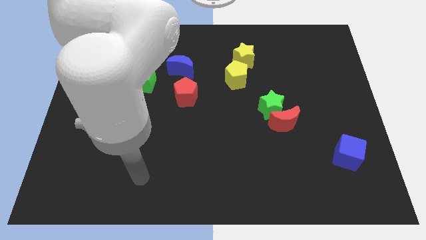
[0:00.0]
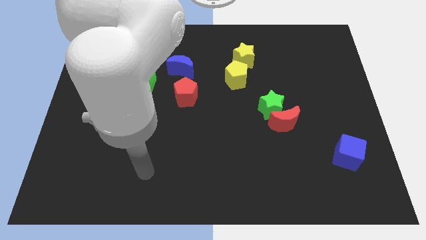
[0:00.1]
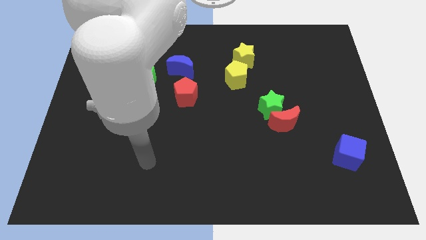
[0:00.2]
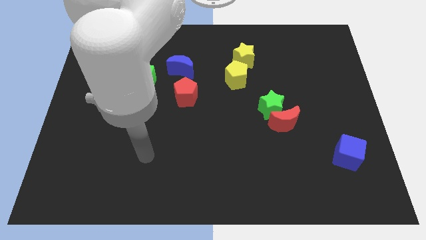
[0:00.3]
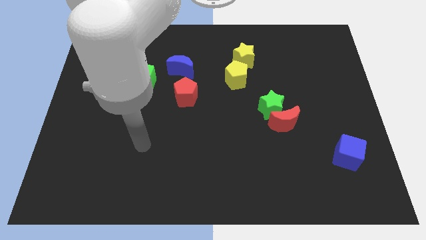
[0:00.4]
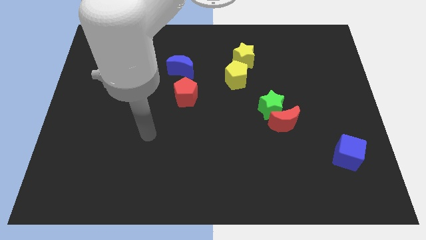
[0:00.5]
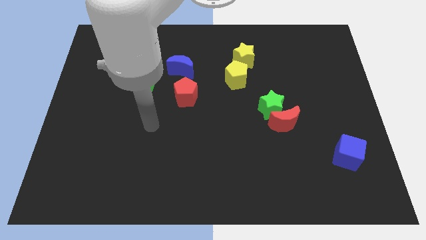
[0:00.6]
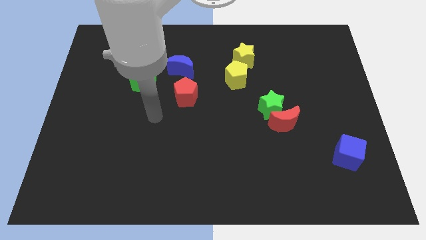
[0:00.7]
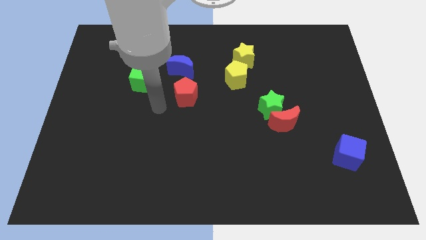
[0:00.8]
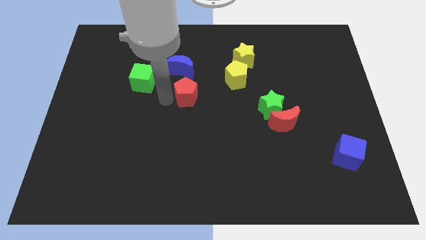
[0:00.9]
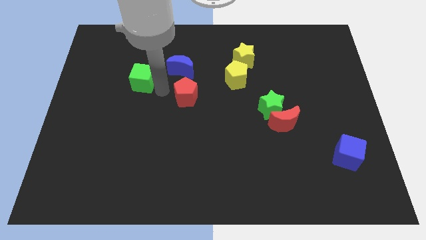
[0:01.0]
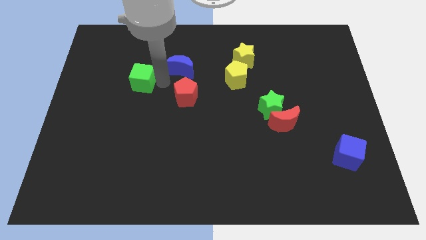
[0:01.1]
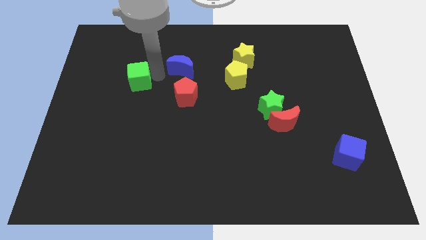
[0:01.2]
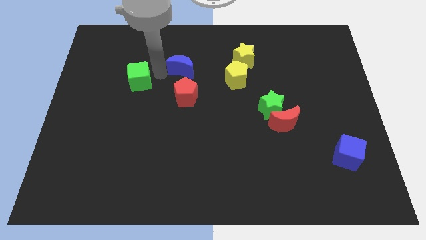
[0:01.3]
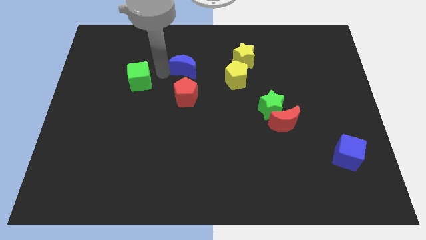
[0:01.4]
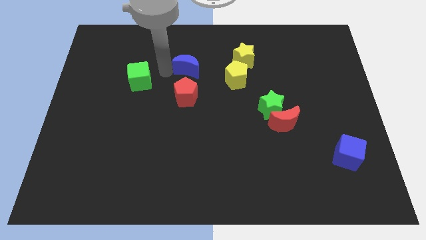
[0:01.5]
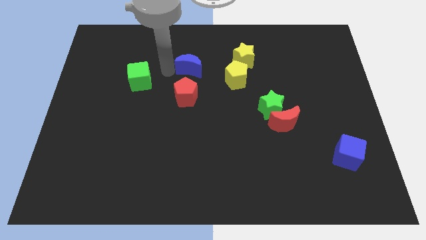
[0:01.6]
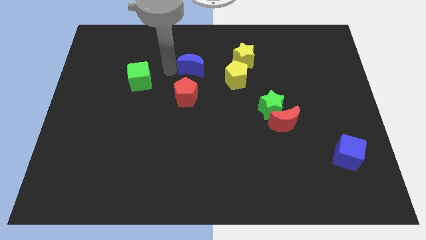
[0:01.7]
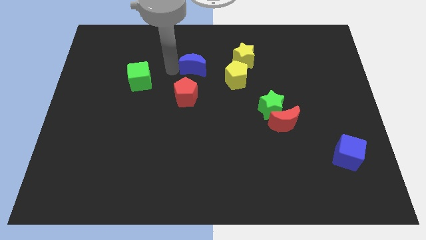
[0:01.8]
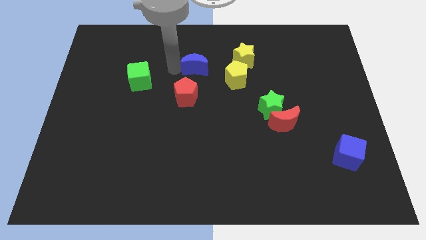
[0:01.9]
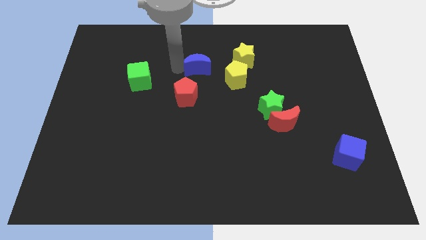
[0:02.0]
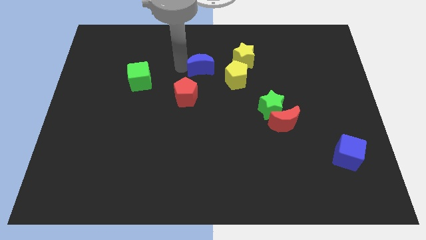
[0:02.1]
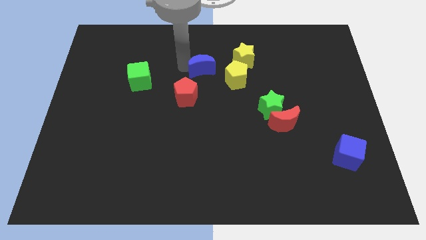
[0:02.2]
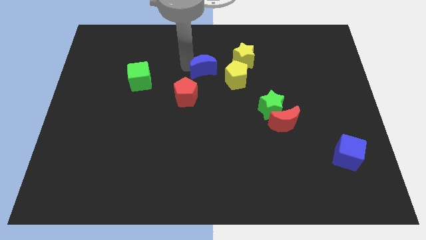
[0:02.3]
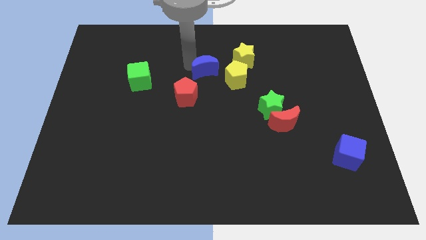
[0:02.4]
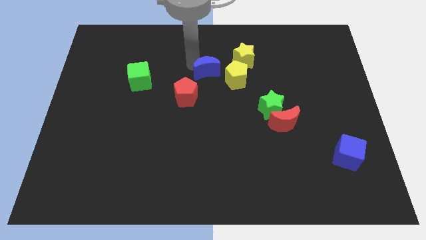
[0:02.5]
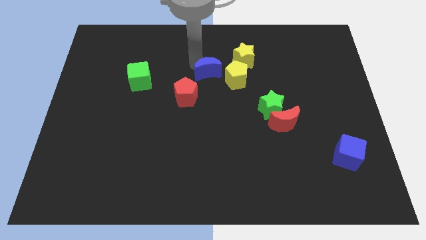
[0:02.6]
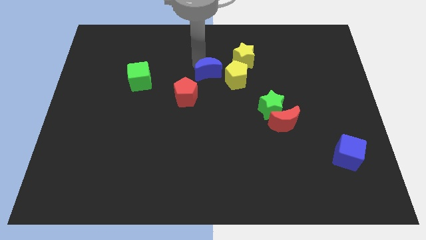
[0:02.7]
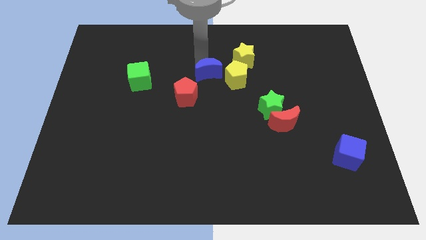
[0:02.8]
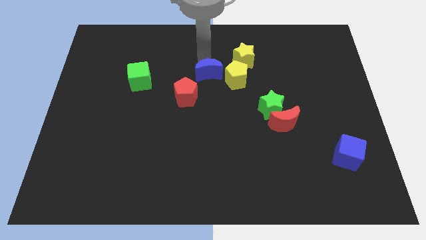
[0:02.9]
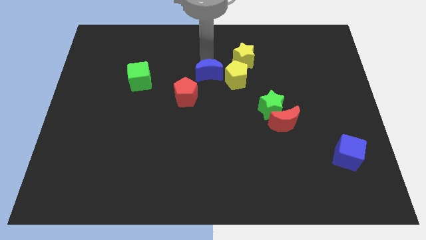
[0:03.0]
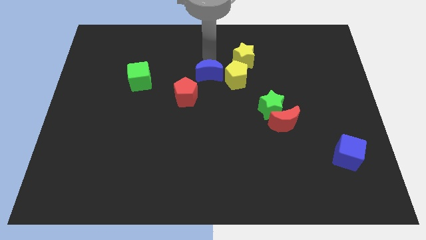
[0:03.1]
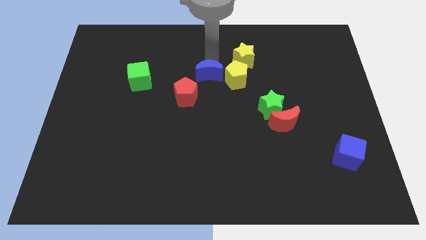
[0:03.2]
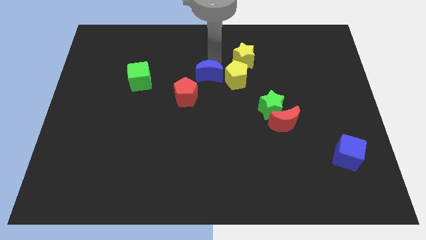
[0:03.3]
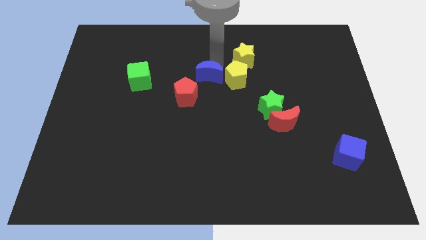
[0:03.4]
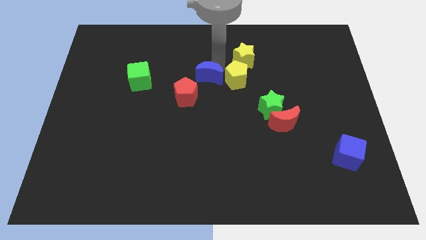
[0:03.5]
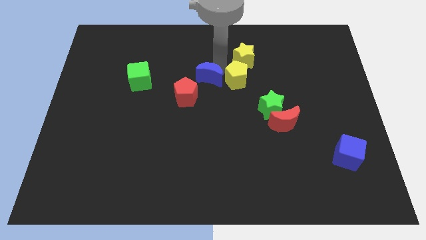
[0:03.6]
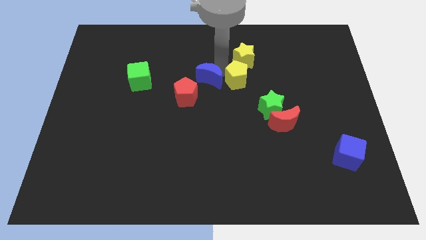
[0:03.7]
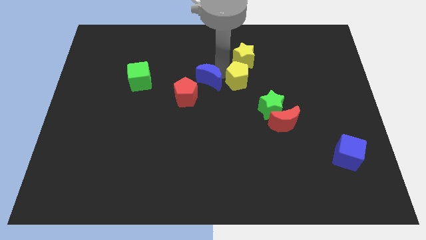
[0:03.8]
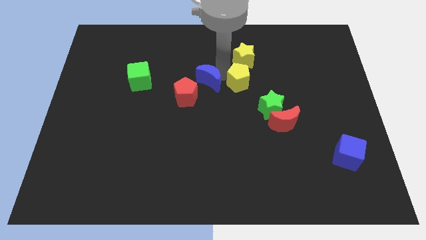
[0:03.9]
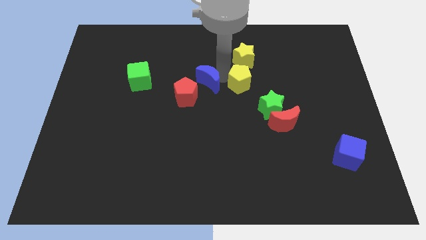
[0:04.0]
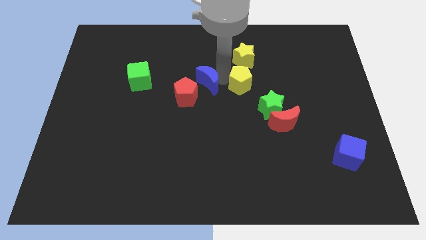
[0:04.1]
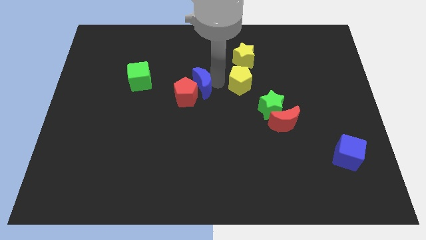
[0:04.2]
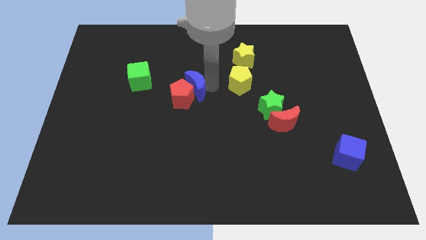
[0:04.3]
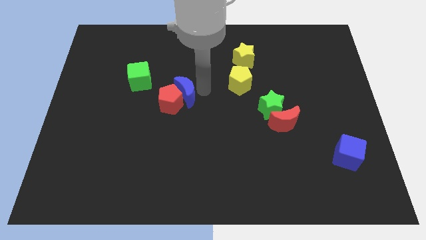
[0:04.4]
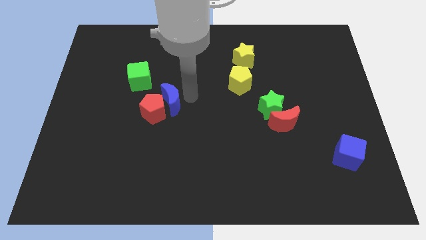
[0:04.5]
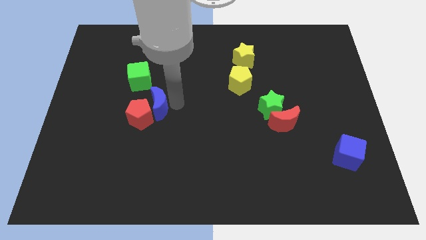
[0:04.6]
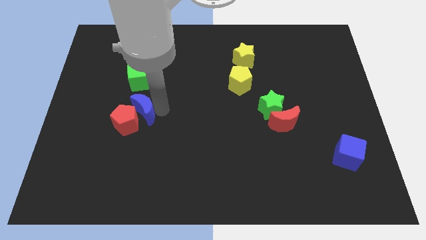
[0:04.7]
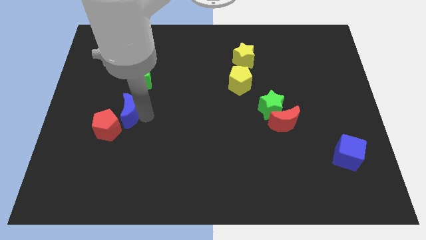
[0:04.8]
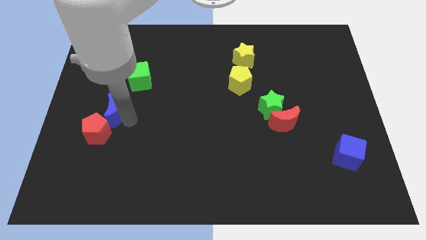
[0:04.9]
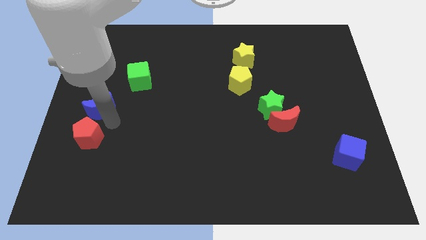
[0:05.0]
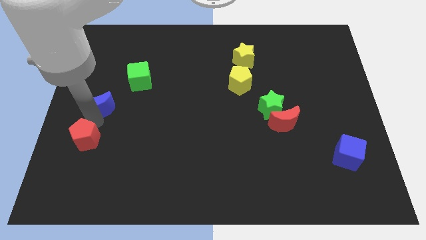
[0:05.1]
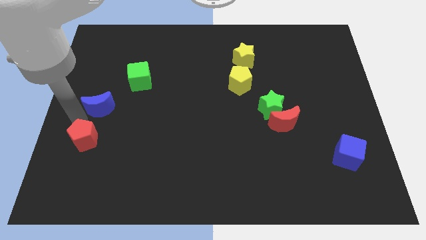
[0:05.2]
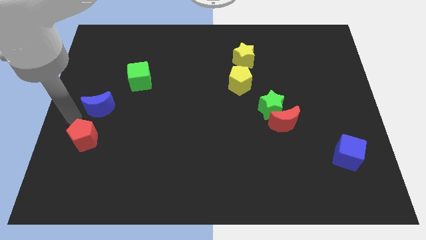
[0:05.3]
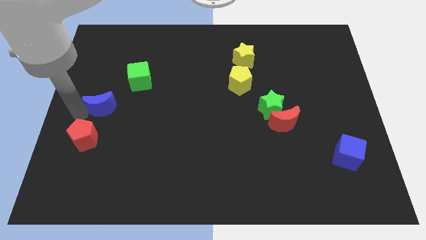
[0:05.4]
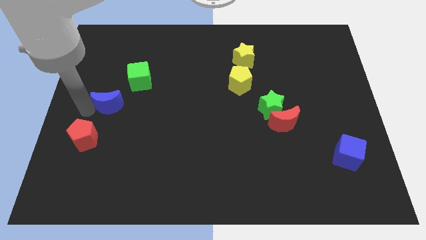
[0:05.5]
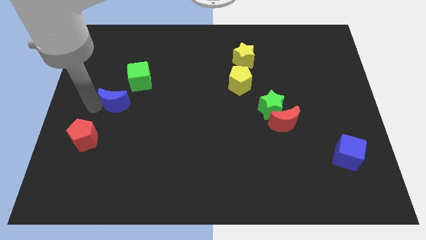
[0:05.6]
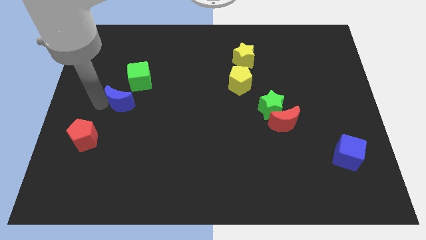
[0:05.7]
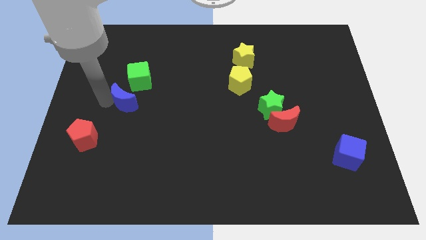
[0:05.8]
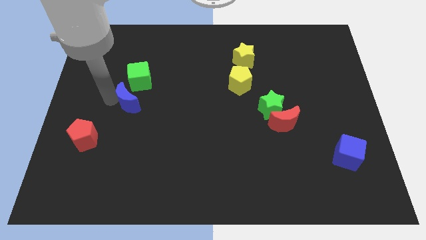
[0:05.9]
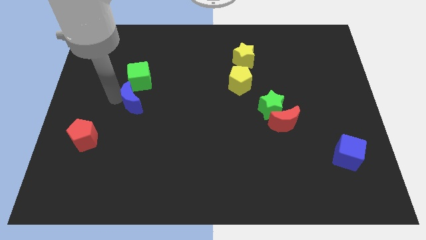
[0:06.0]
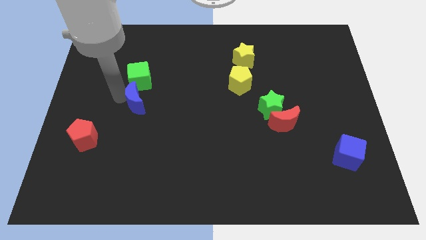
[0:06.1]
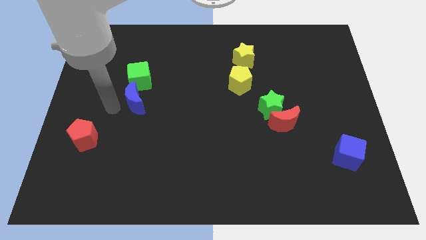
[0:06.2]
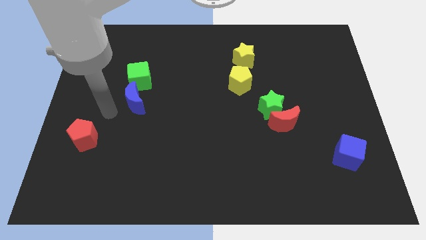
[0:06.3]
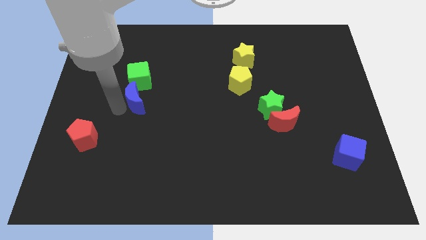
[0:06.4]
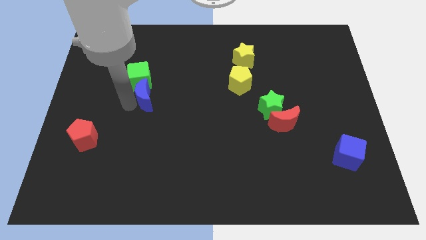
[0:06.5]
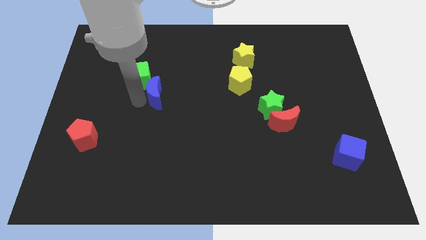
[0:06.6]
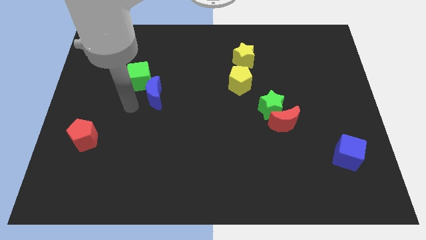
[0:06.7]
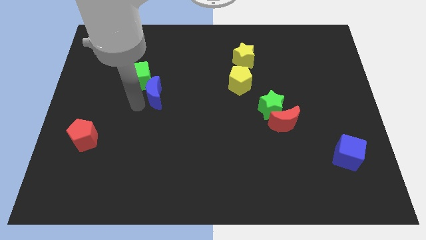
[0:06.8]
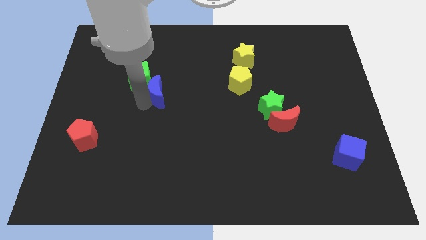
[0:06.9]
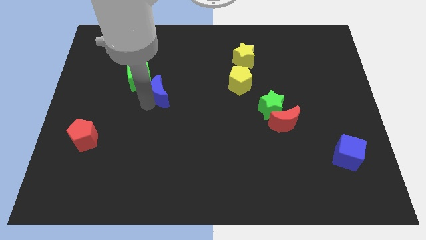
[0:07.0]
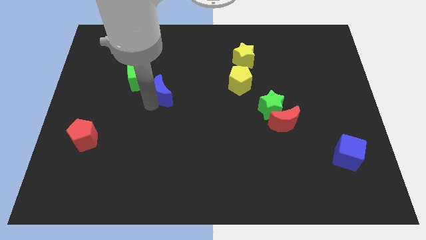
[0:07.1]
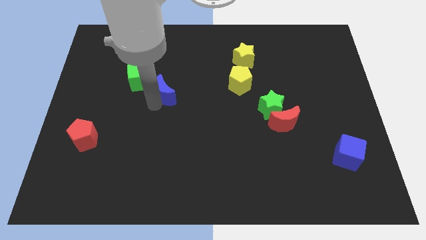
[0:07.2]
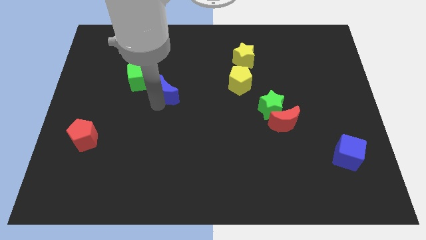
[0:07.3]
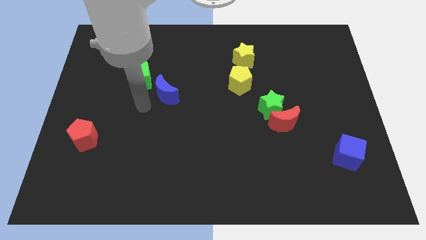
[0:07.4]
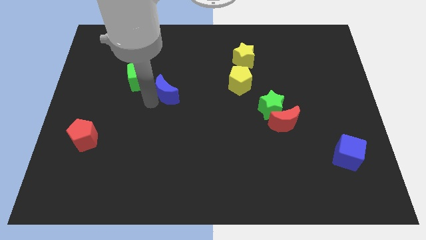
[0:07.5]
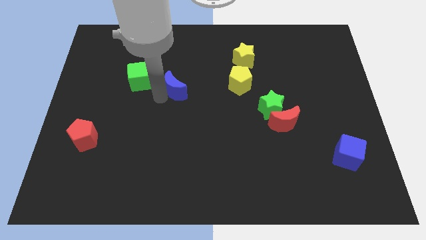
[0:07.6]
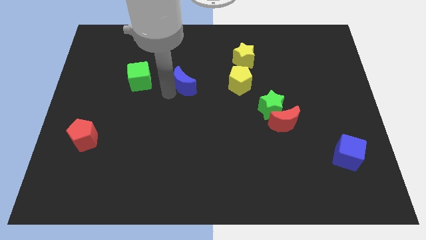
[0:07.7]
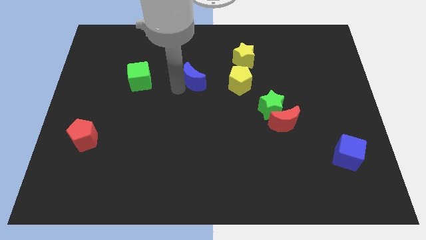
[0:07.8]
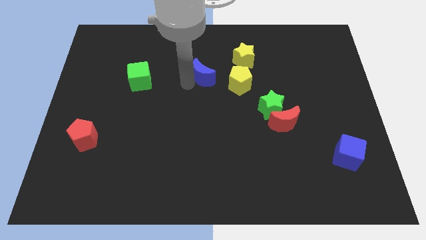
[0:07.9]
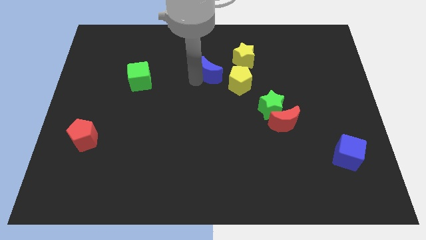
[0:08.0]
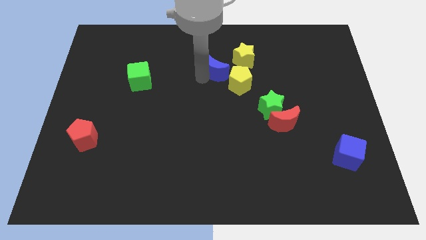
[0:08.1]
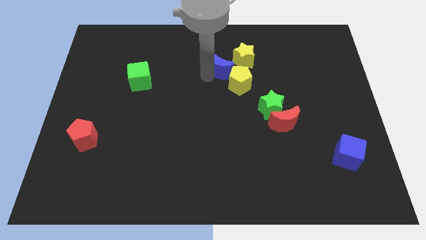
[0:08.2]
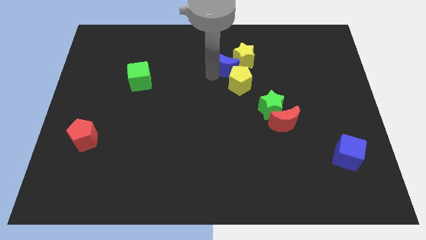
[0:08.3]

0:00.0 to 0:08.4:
slide the blue moon next to the yellow star
